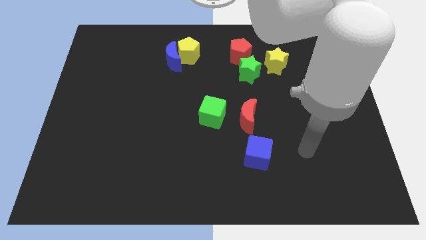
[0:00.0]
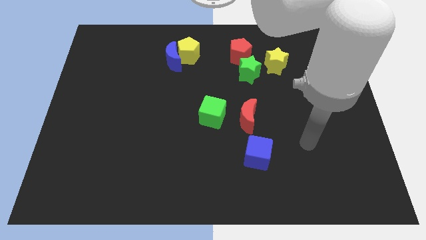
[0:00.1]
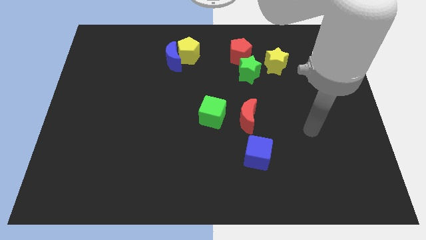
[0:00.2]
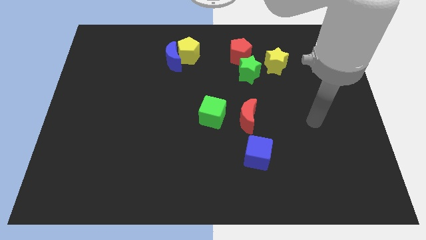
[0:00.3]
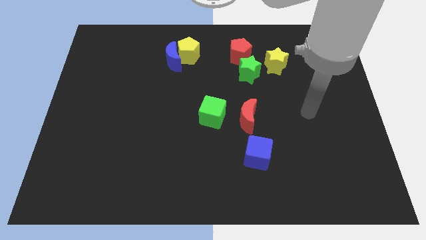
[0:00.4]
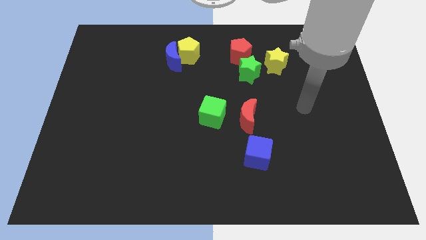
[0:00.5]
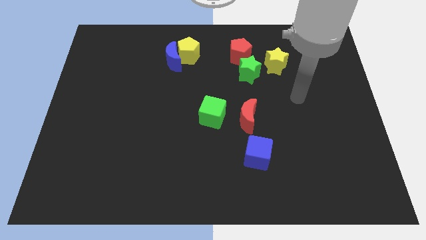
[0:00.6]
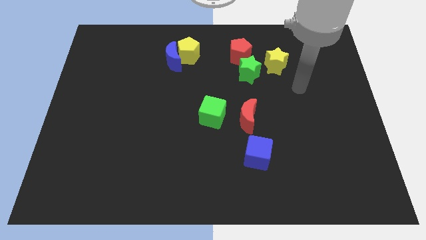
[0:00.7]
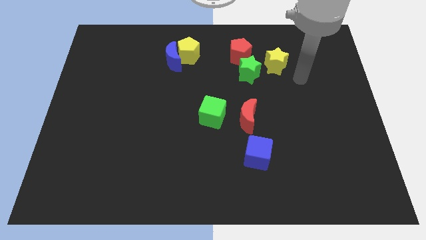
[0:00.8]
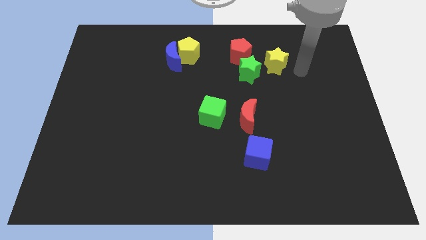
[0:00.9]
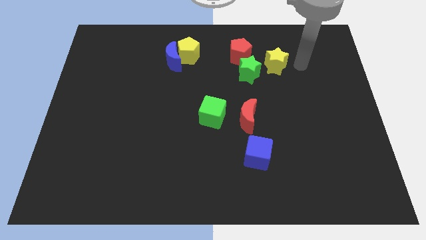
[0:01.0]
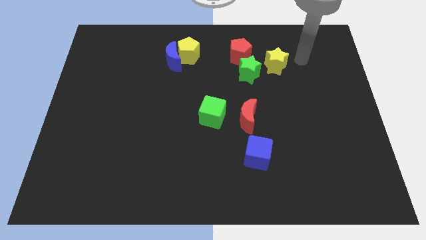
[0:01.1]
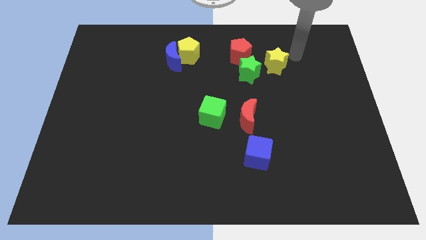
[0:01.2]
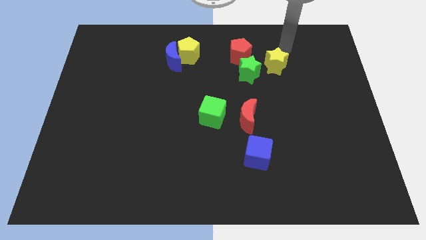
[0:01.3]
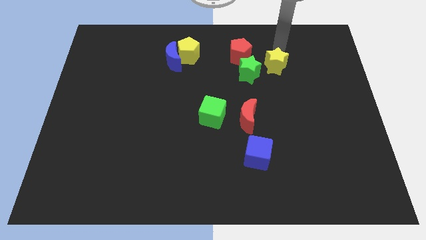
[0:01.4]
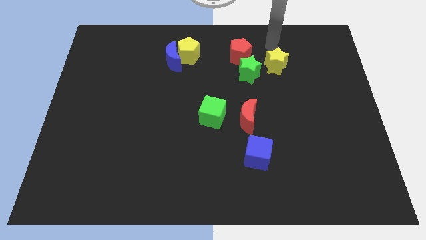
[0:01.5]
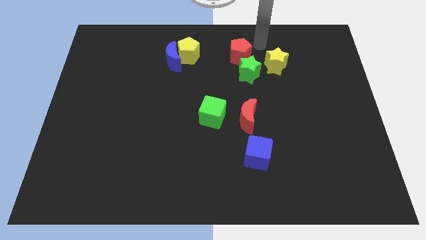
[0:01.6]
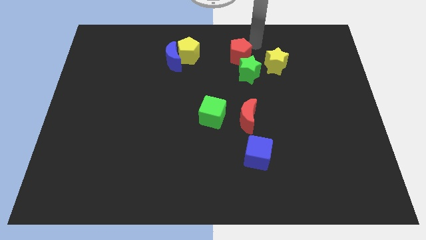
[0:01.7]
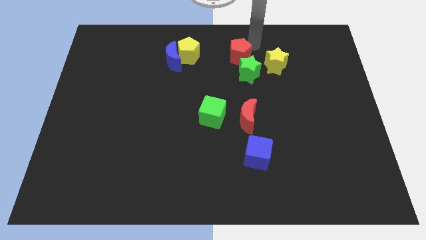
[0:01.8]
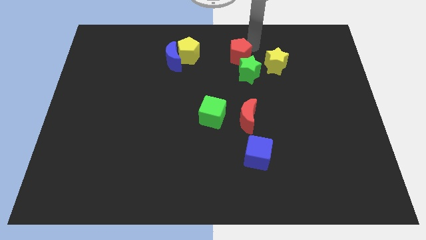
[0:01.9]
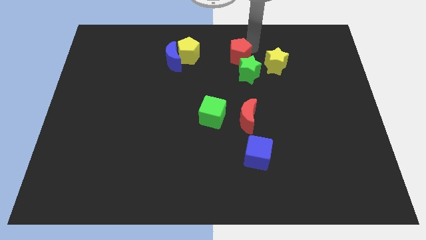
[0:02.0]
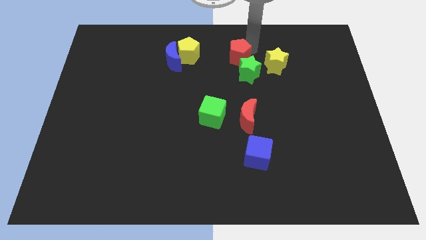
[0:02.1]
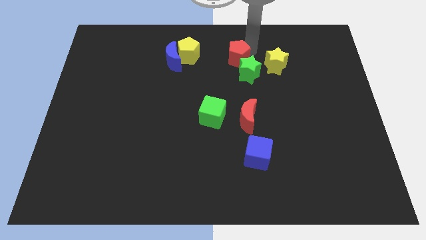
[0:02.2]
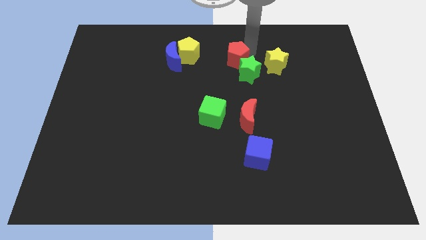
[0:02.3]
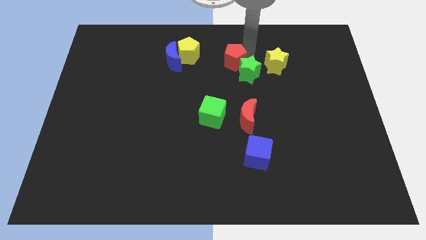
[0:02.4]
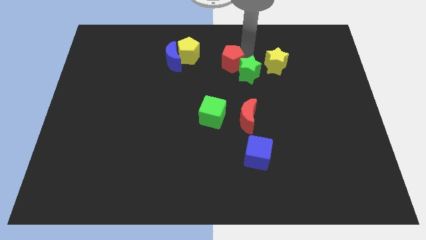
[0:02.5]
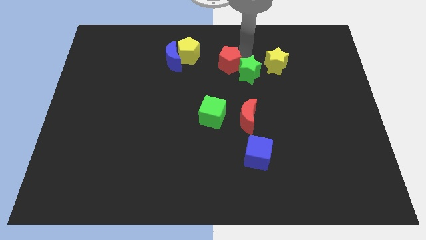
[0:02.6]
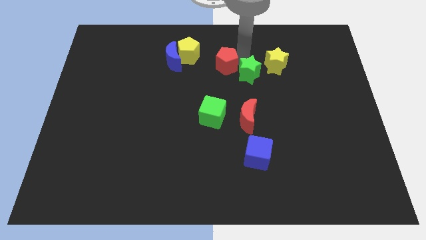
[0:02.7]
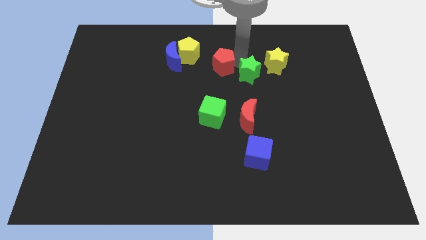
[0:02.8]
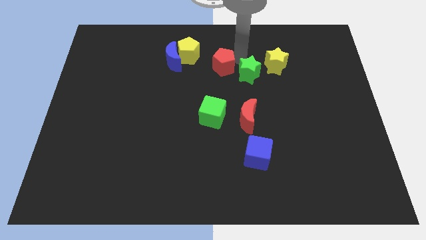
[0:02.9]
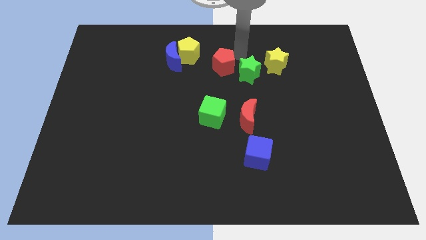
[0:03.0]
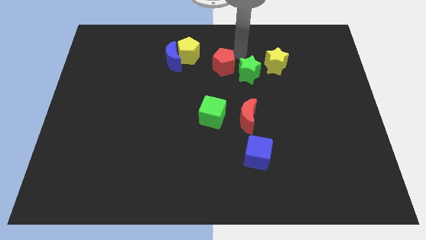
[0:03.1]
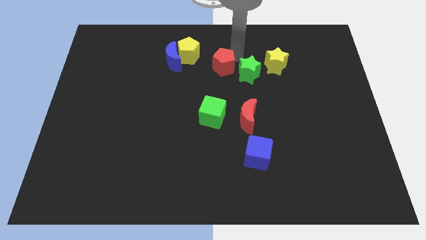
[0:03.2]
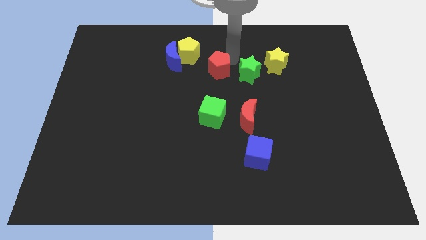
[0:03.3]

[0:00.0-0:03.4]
push the red pentagon a bit down and then left

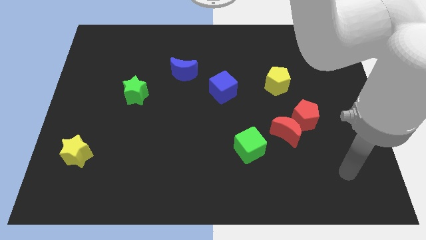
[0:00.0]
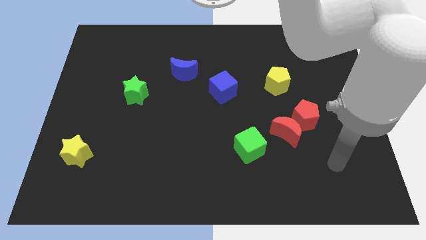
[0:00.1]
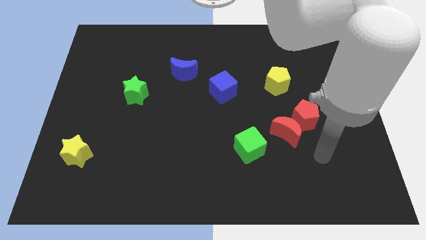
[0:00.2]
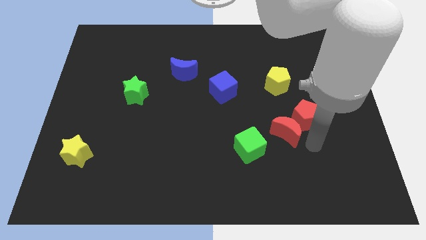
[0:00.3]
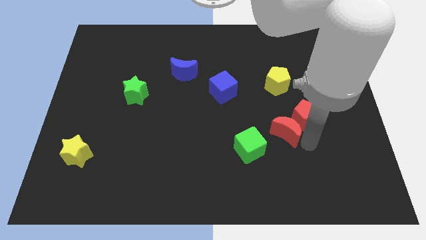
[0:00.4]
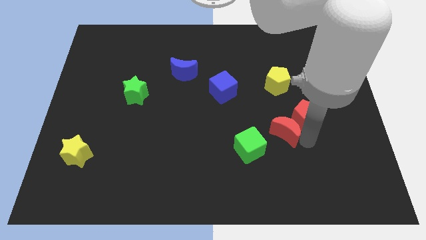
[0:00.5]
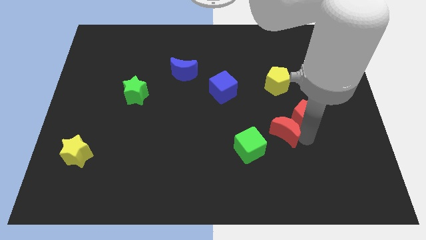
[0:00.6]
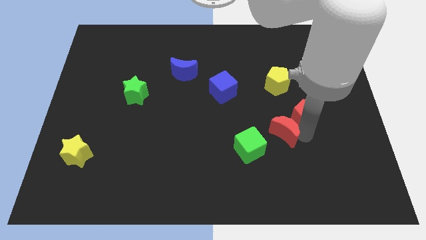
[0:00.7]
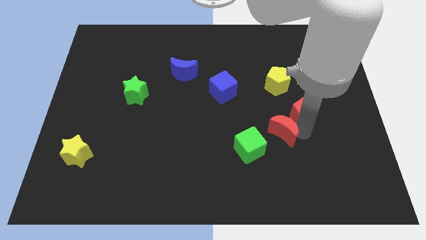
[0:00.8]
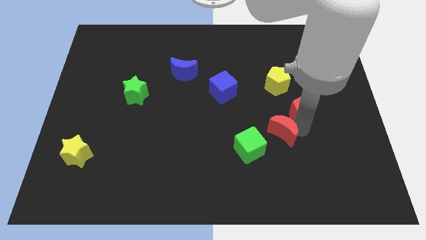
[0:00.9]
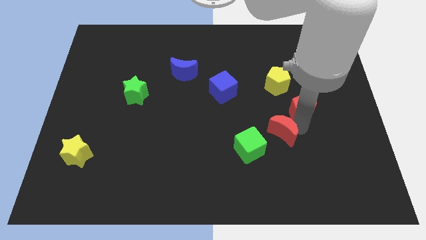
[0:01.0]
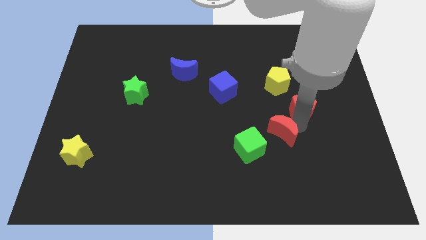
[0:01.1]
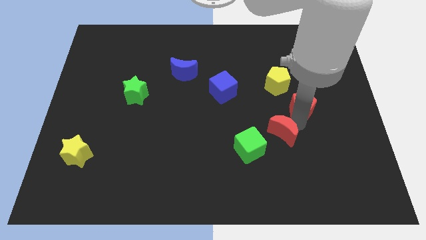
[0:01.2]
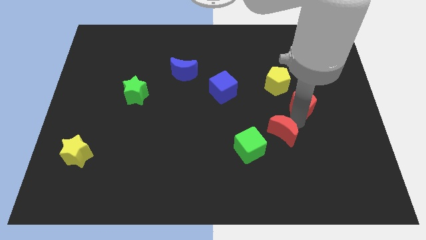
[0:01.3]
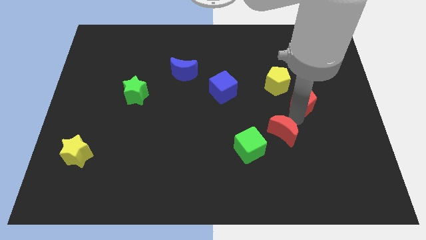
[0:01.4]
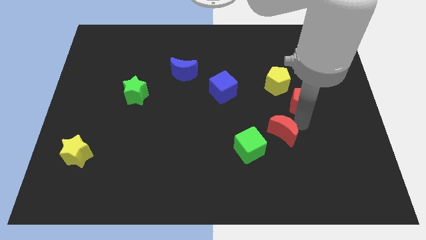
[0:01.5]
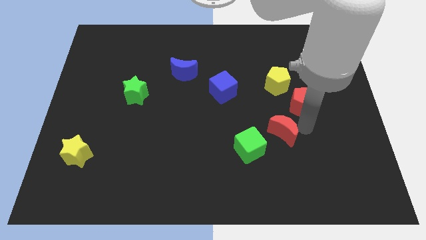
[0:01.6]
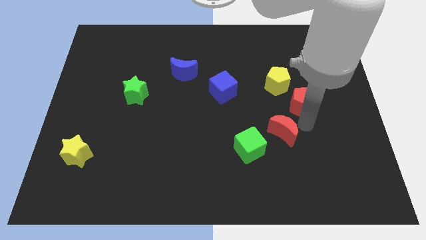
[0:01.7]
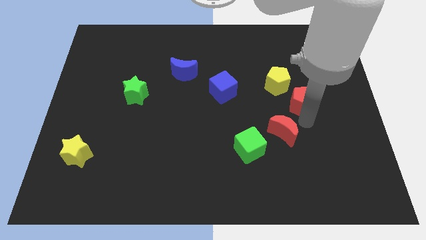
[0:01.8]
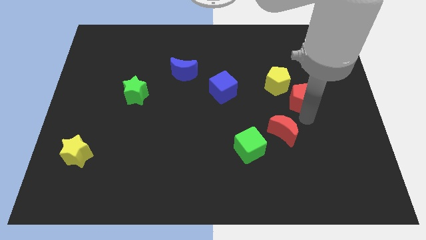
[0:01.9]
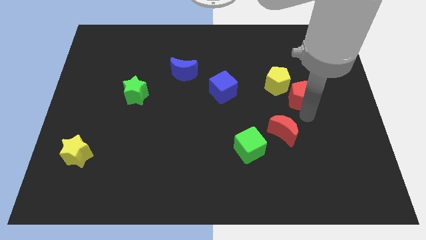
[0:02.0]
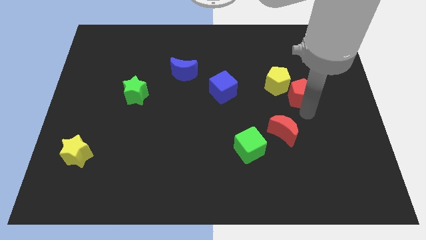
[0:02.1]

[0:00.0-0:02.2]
slide the red pentagon up somewhat

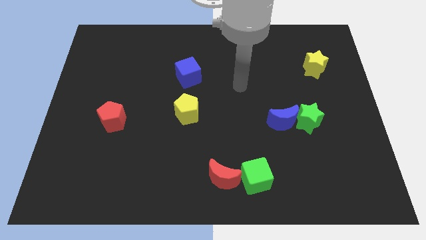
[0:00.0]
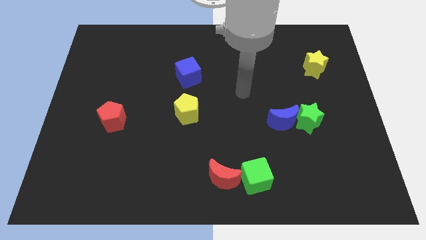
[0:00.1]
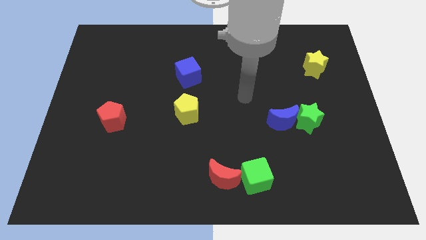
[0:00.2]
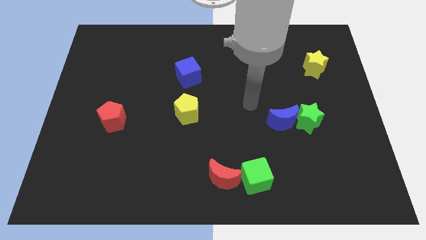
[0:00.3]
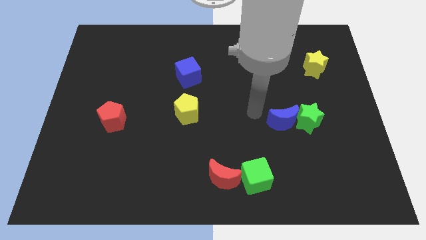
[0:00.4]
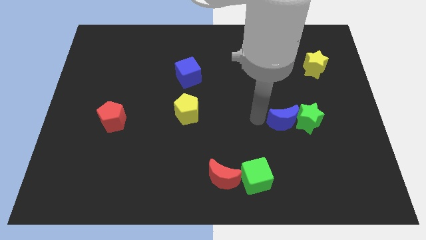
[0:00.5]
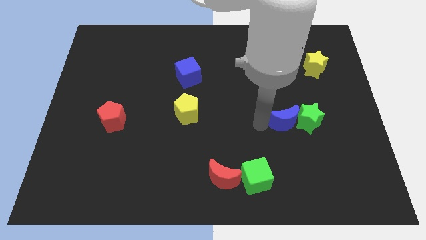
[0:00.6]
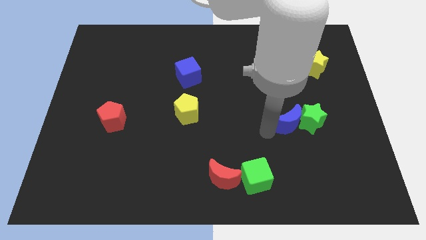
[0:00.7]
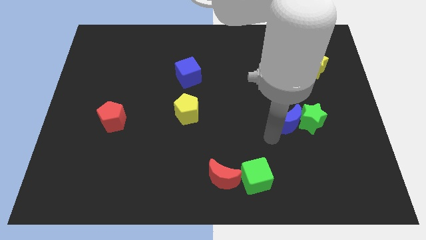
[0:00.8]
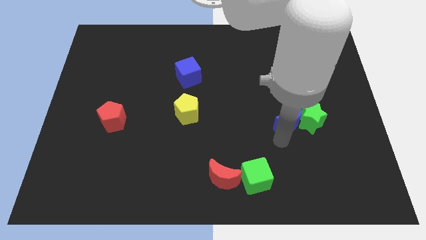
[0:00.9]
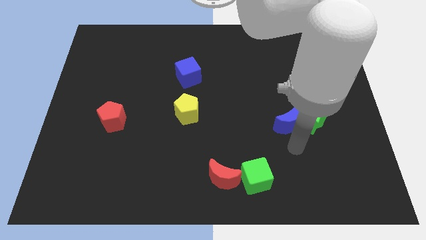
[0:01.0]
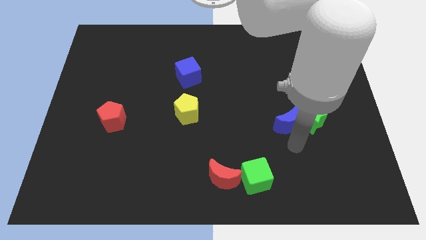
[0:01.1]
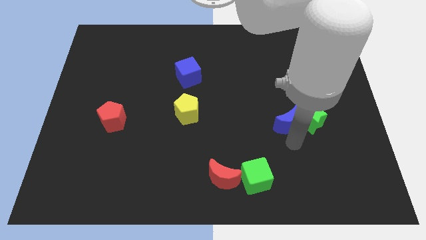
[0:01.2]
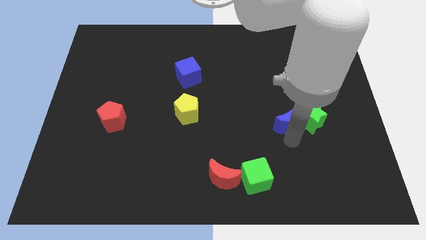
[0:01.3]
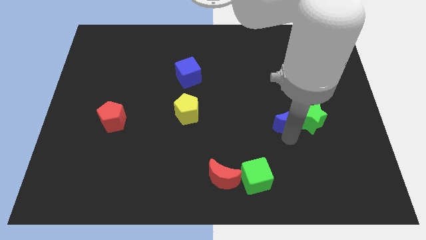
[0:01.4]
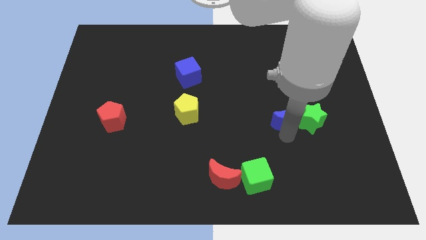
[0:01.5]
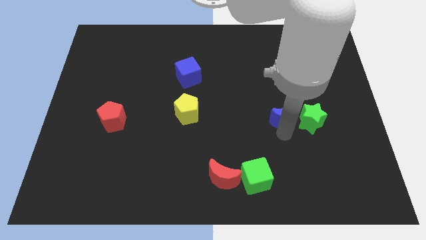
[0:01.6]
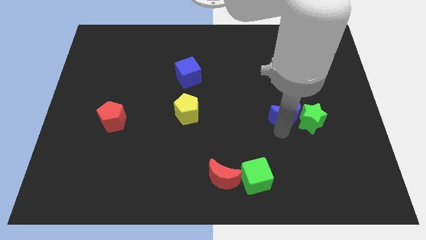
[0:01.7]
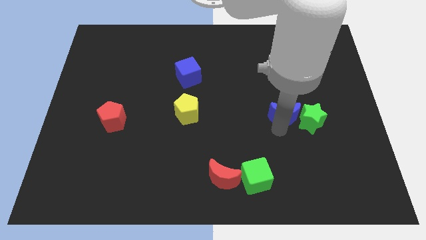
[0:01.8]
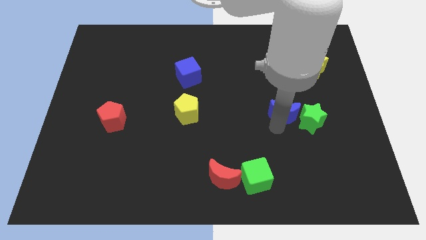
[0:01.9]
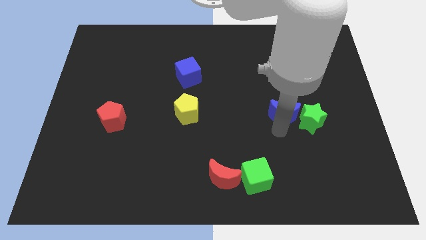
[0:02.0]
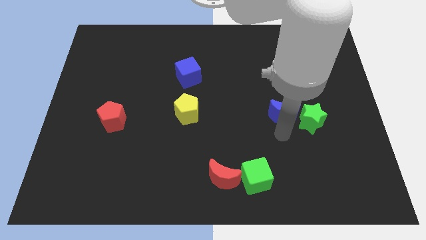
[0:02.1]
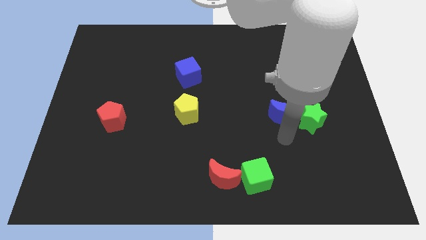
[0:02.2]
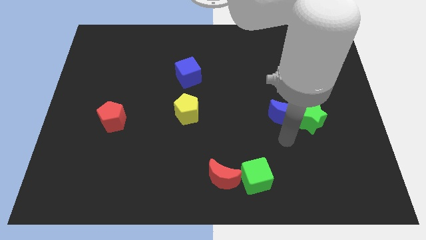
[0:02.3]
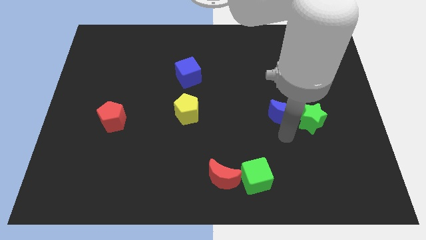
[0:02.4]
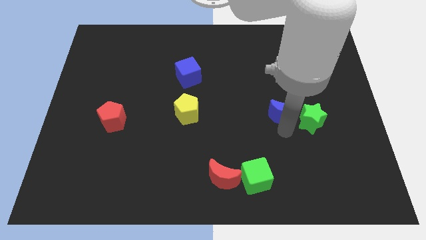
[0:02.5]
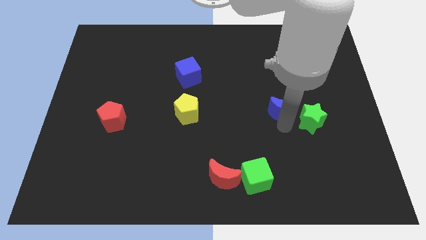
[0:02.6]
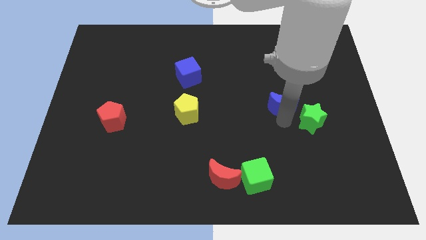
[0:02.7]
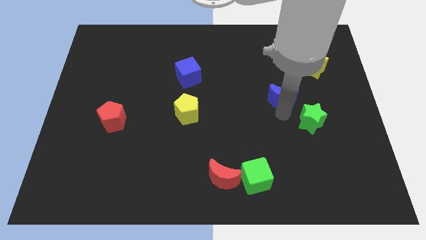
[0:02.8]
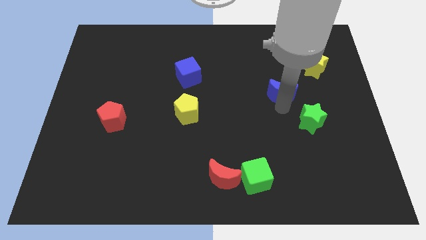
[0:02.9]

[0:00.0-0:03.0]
slightly slide the blue moon up
